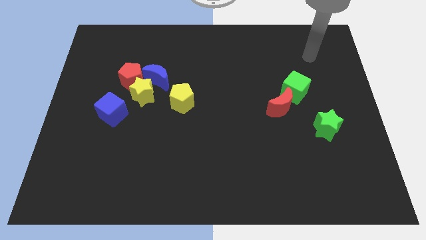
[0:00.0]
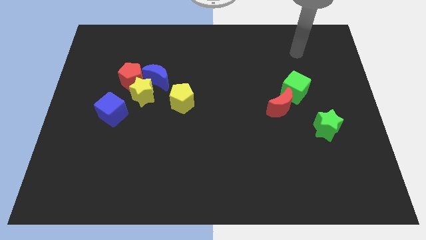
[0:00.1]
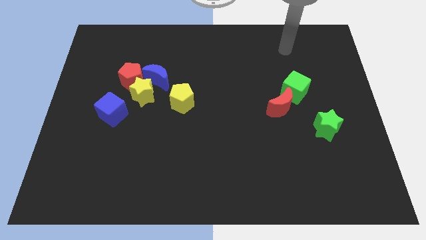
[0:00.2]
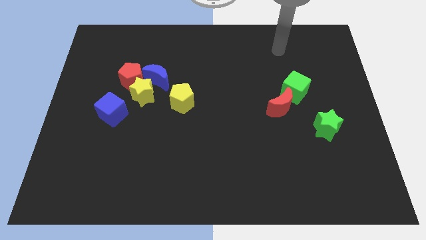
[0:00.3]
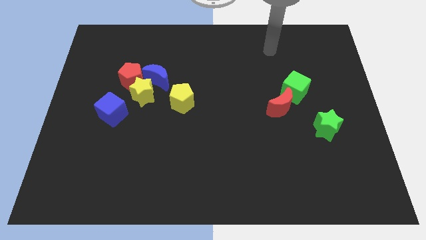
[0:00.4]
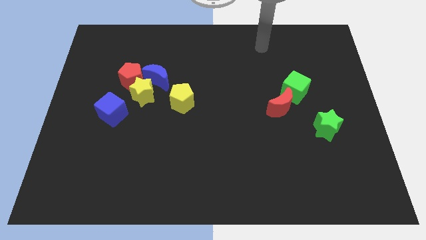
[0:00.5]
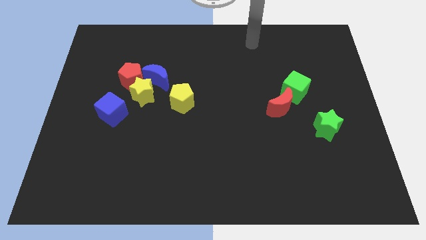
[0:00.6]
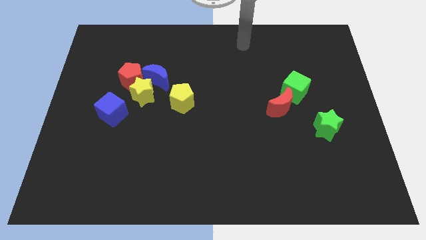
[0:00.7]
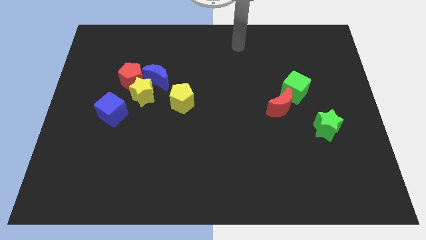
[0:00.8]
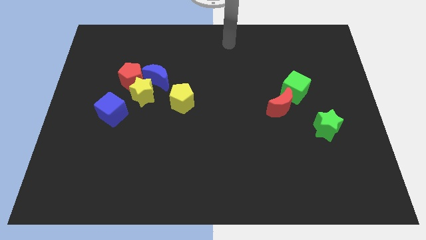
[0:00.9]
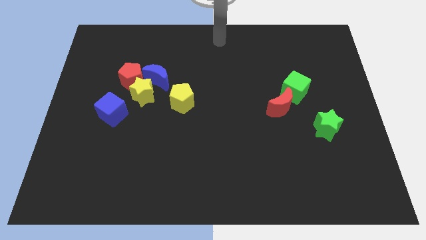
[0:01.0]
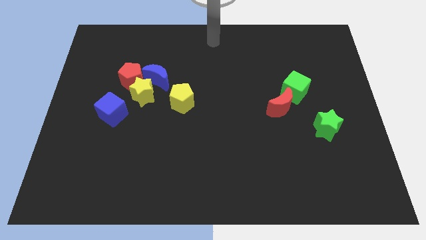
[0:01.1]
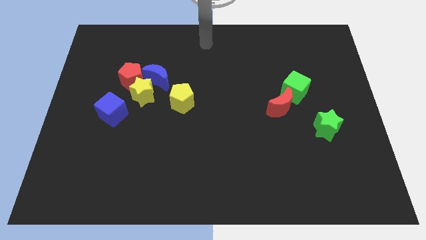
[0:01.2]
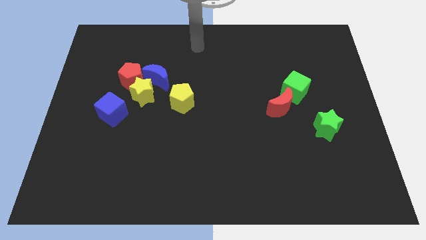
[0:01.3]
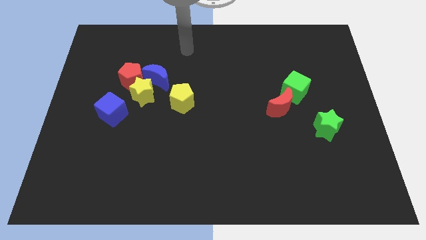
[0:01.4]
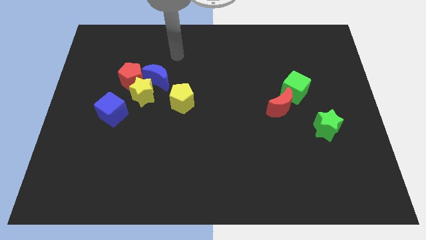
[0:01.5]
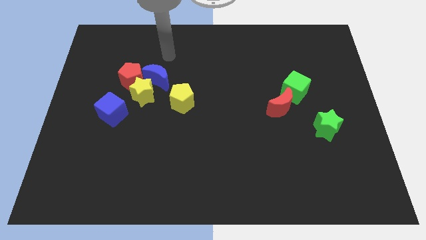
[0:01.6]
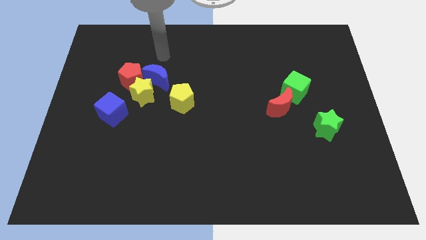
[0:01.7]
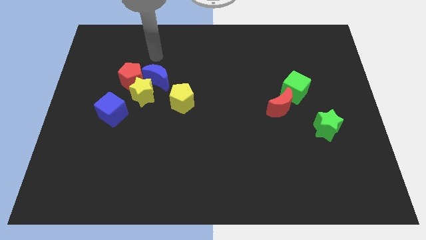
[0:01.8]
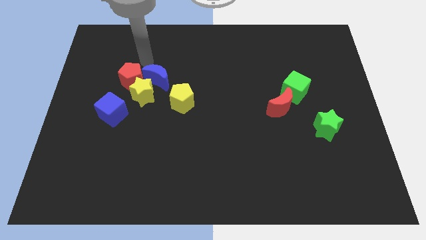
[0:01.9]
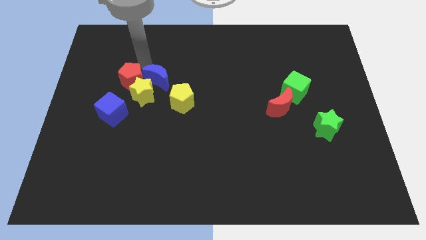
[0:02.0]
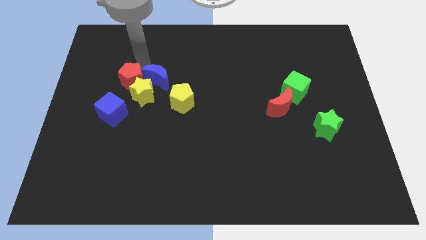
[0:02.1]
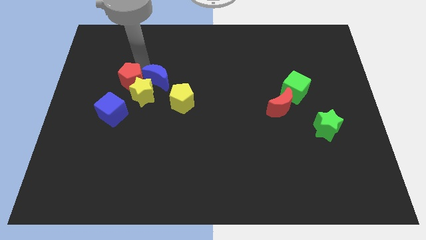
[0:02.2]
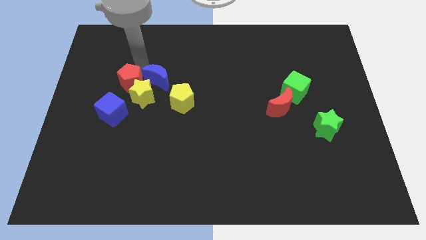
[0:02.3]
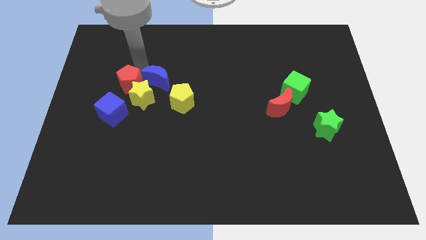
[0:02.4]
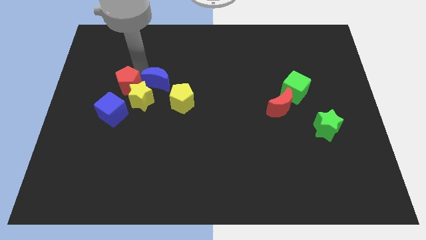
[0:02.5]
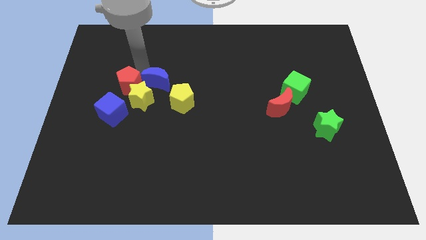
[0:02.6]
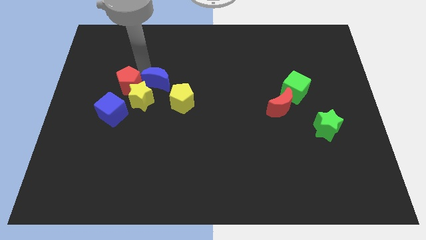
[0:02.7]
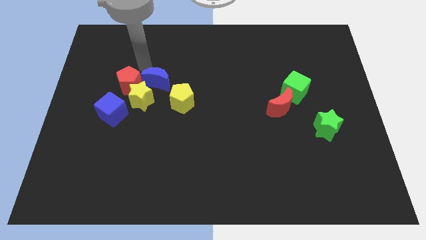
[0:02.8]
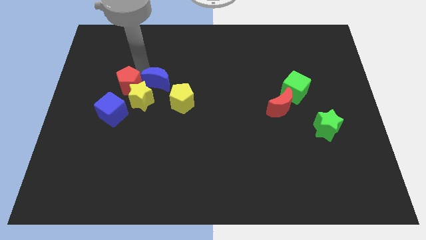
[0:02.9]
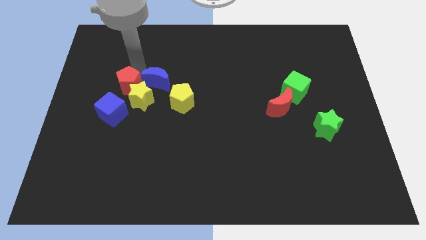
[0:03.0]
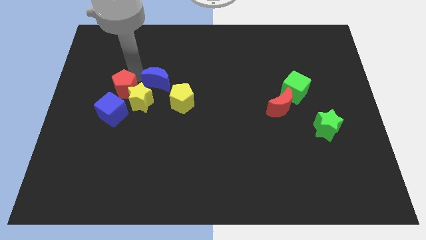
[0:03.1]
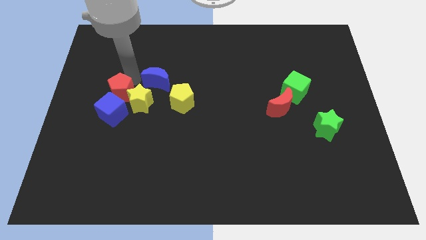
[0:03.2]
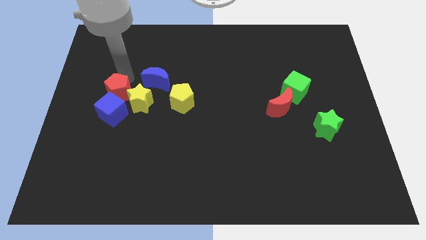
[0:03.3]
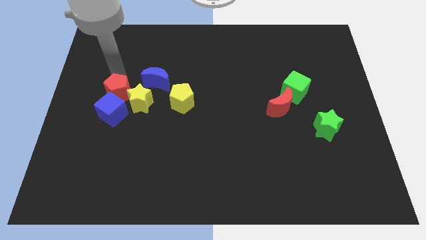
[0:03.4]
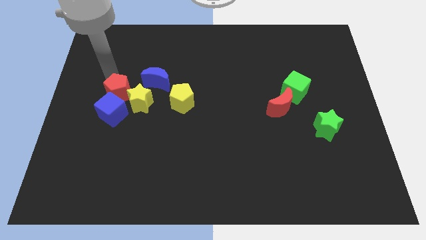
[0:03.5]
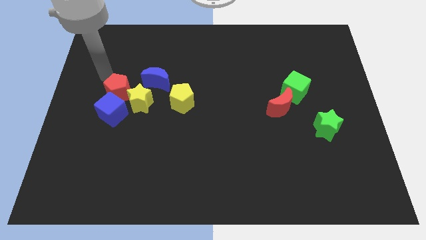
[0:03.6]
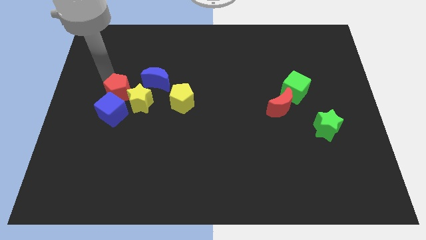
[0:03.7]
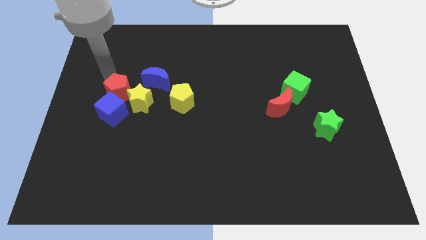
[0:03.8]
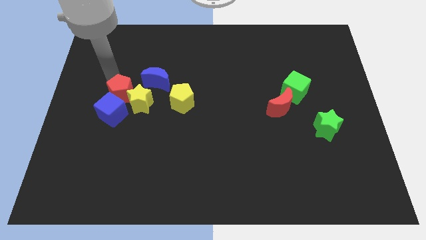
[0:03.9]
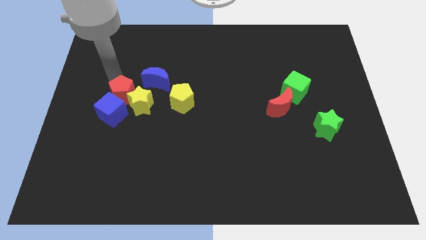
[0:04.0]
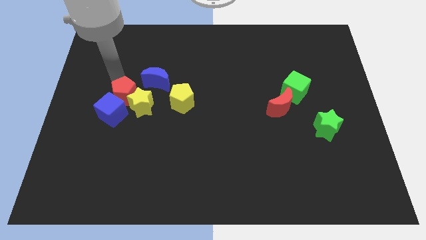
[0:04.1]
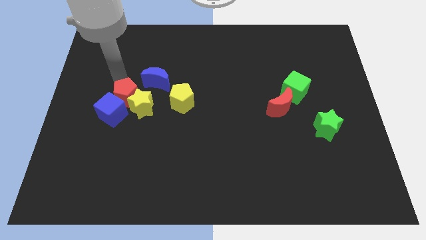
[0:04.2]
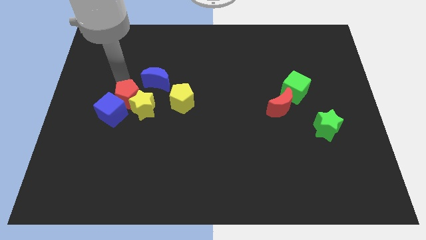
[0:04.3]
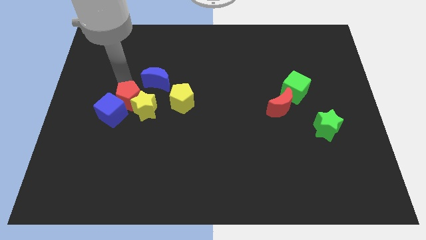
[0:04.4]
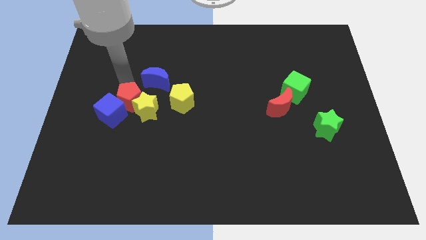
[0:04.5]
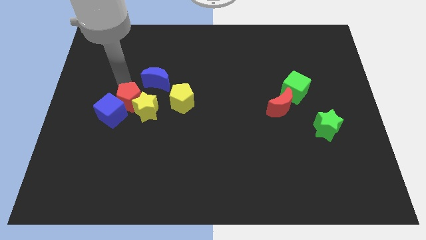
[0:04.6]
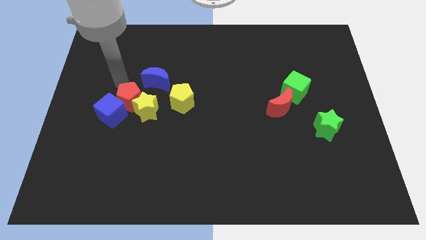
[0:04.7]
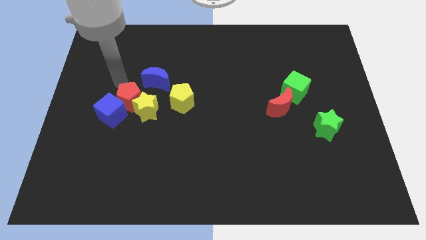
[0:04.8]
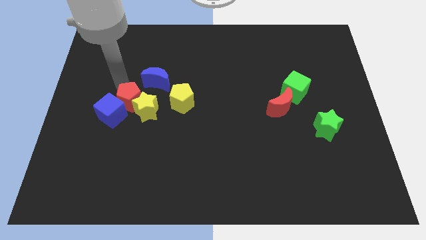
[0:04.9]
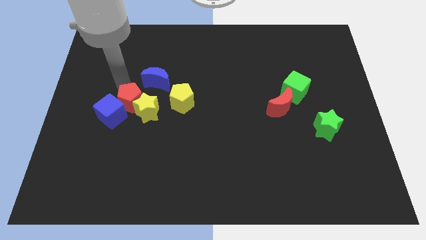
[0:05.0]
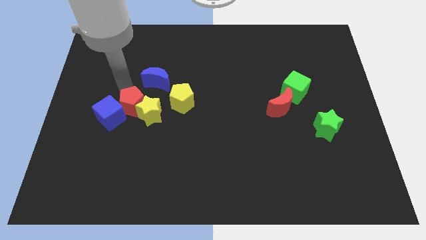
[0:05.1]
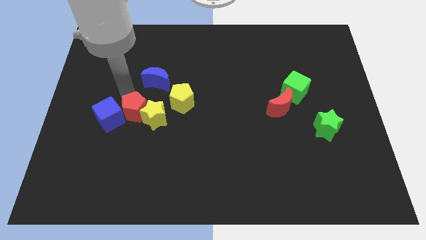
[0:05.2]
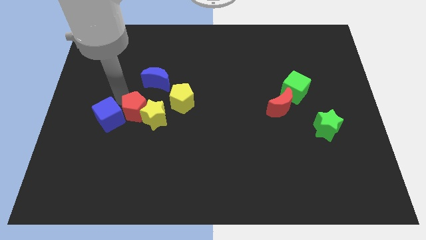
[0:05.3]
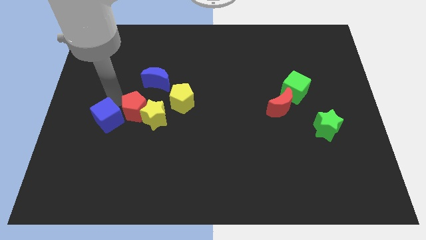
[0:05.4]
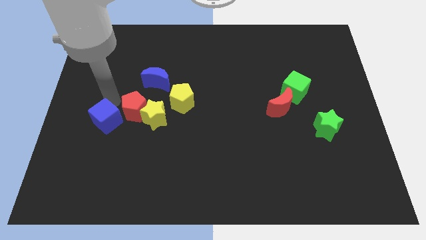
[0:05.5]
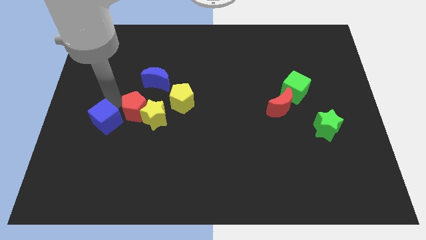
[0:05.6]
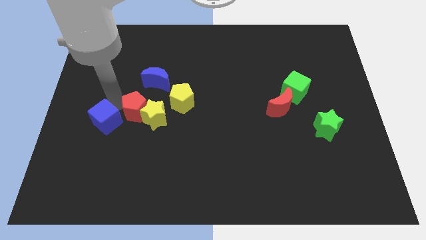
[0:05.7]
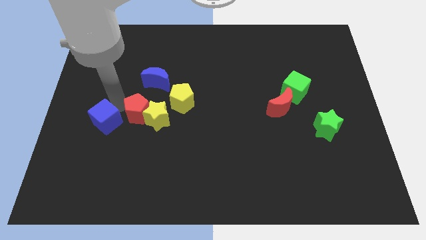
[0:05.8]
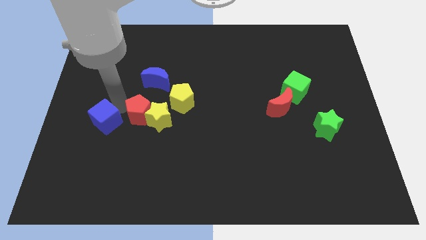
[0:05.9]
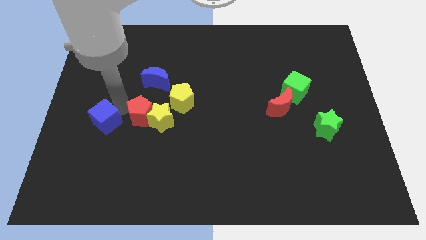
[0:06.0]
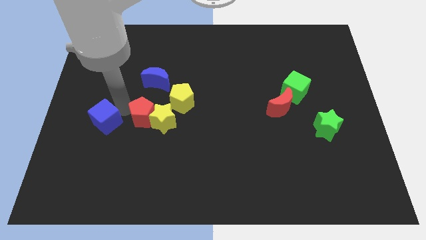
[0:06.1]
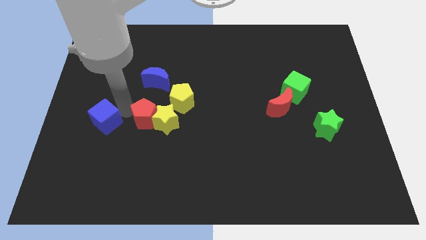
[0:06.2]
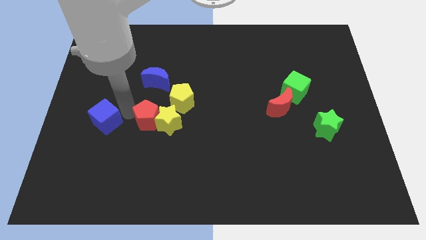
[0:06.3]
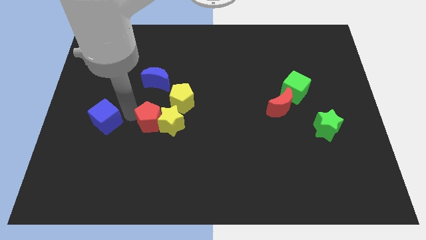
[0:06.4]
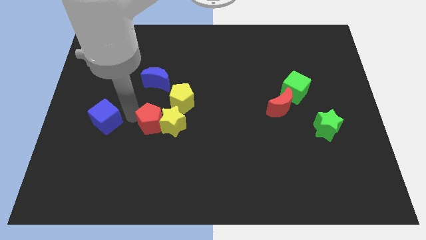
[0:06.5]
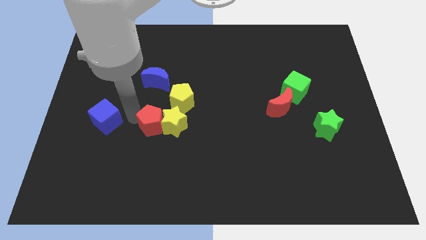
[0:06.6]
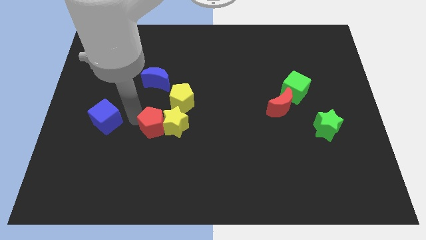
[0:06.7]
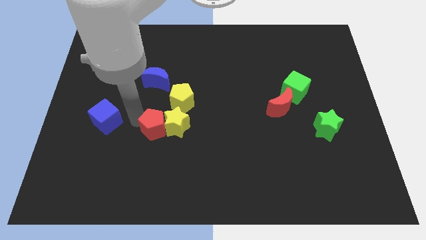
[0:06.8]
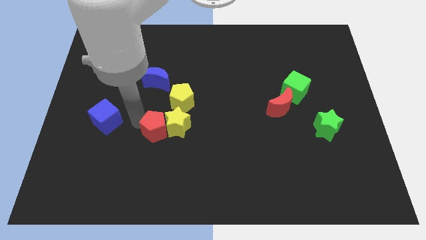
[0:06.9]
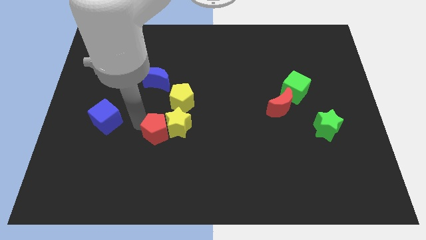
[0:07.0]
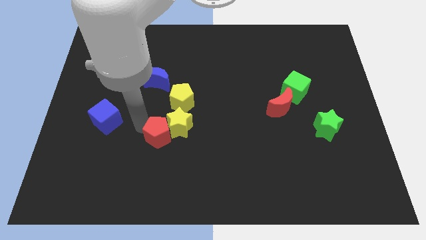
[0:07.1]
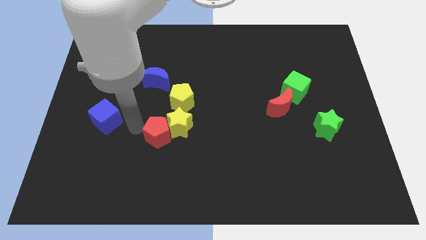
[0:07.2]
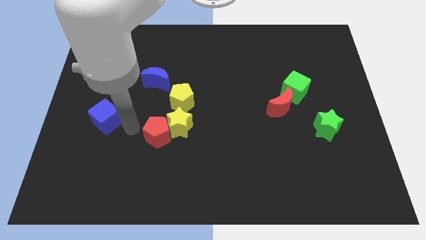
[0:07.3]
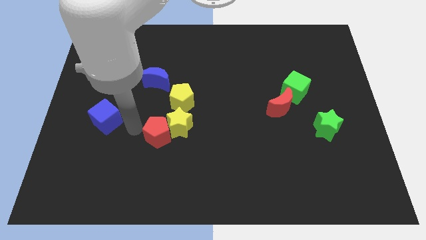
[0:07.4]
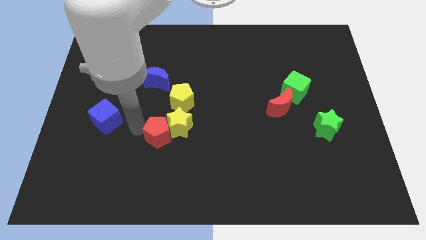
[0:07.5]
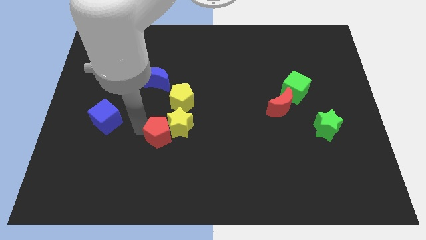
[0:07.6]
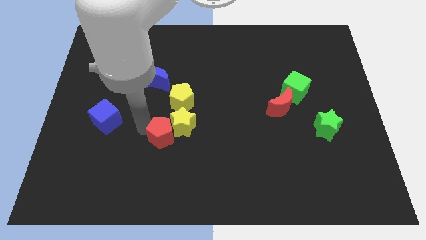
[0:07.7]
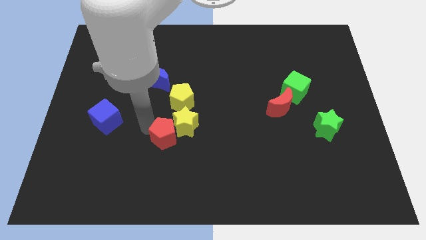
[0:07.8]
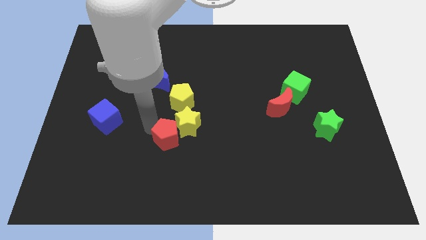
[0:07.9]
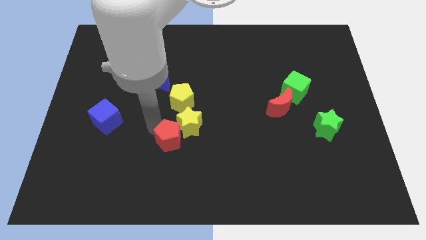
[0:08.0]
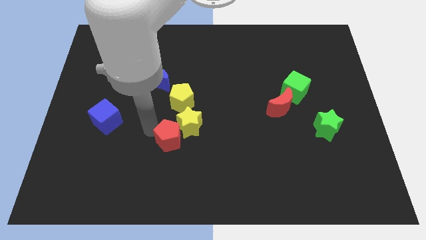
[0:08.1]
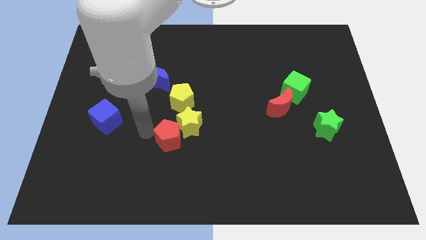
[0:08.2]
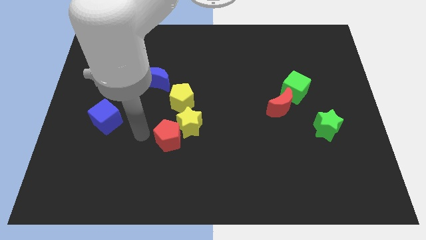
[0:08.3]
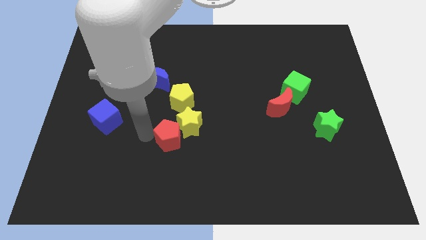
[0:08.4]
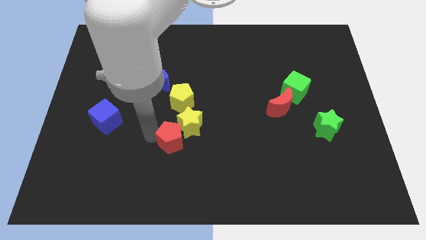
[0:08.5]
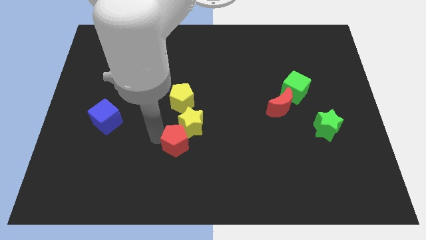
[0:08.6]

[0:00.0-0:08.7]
push the red pentagon down and then to the right
